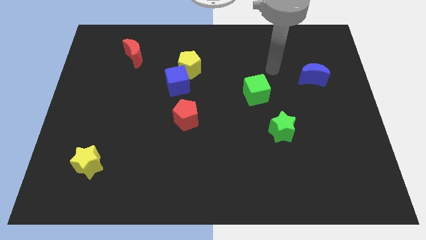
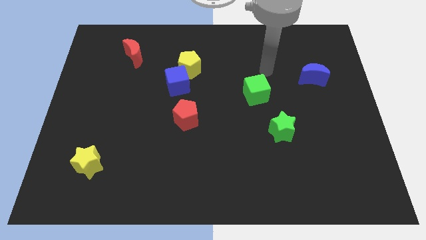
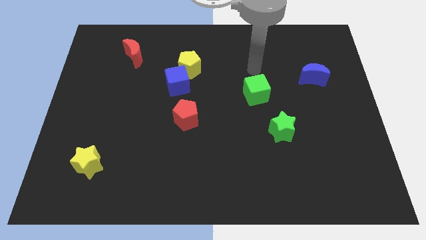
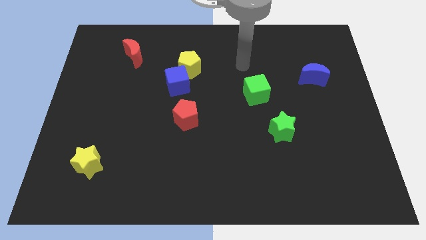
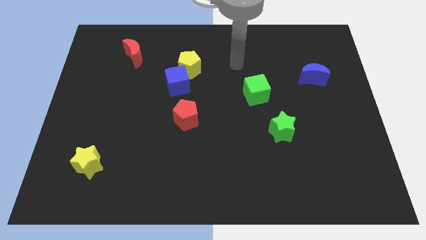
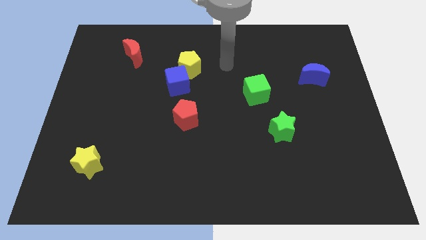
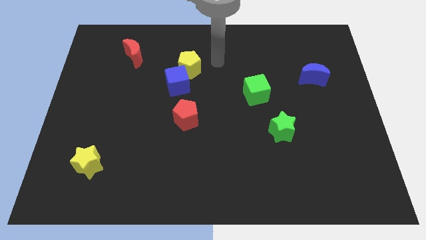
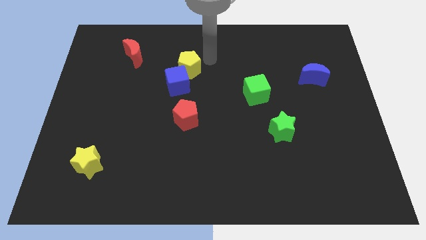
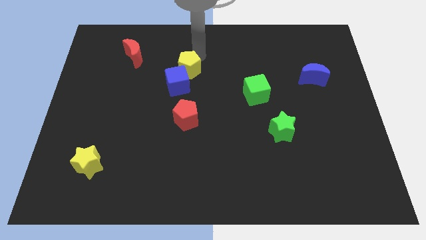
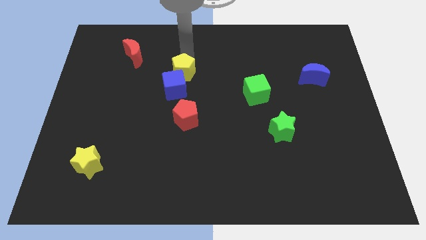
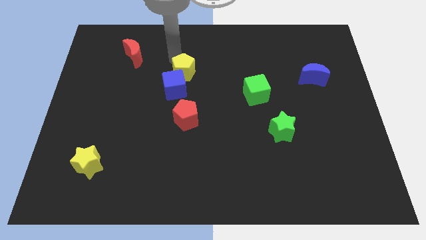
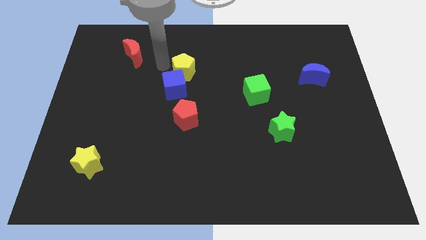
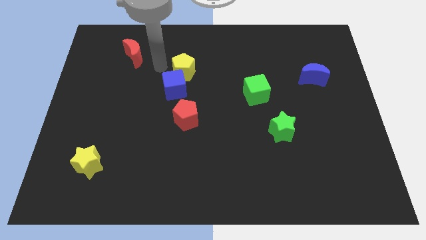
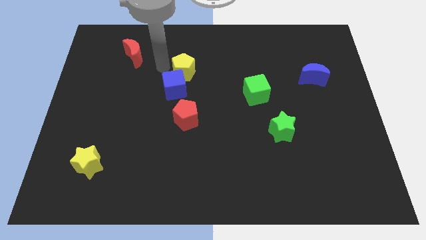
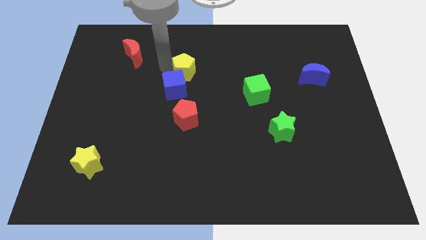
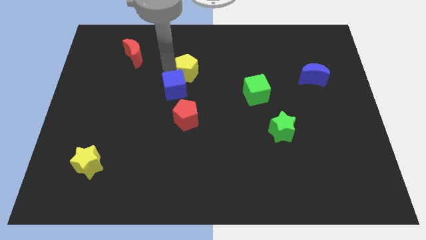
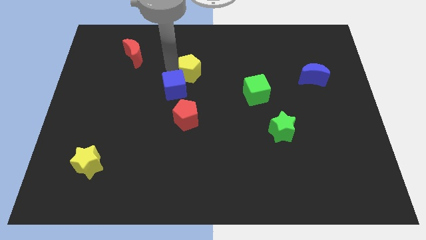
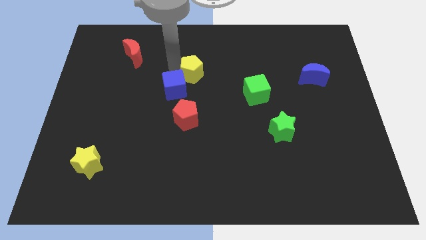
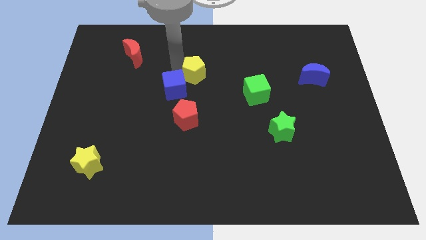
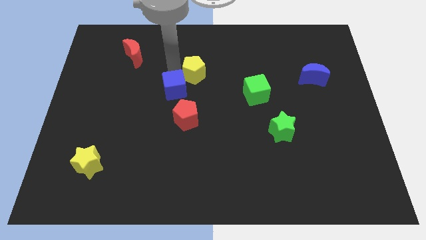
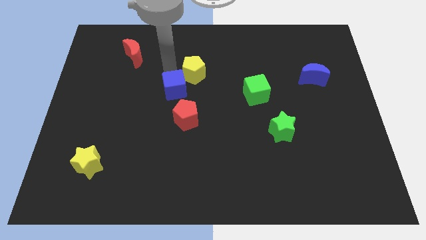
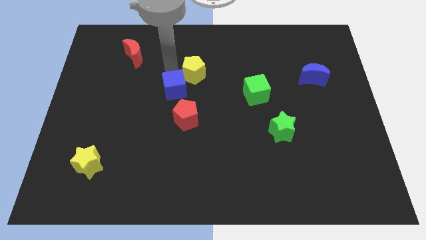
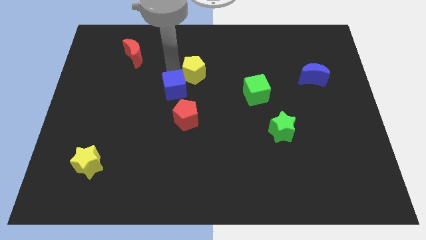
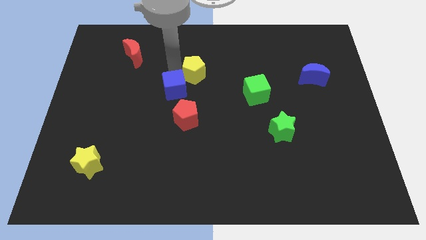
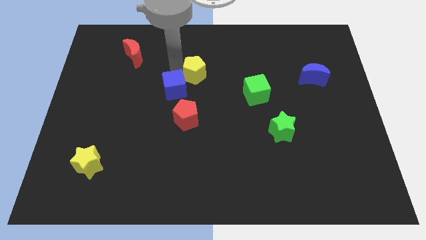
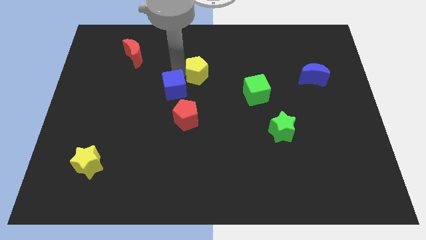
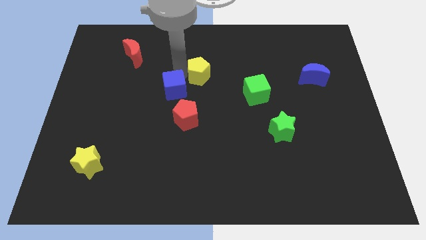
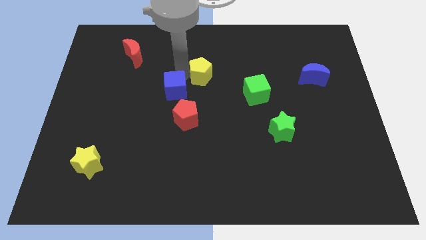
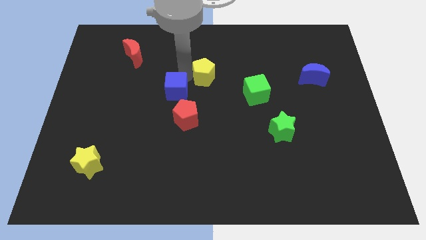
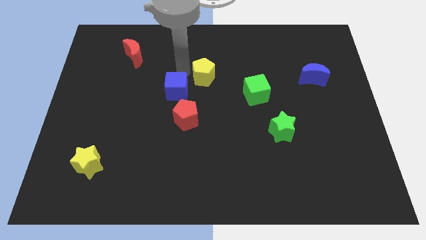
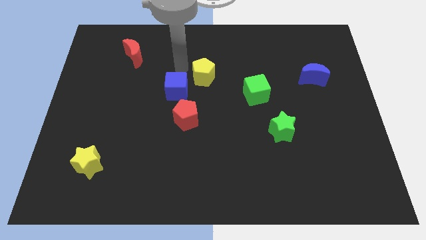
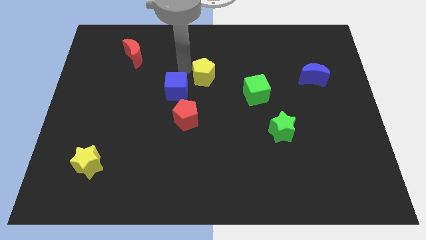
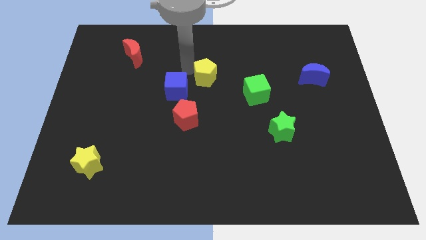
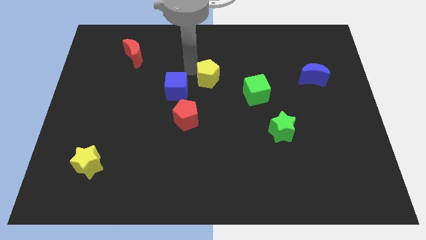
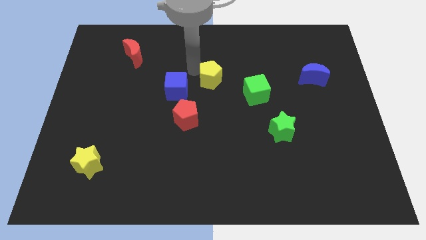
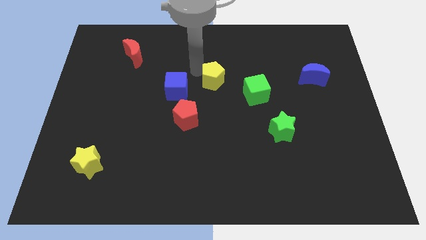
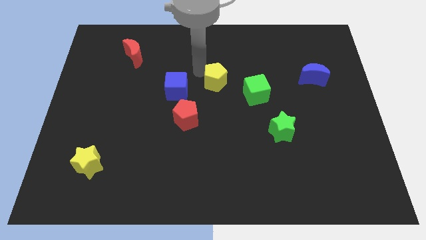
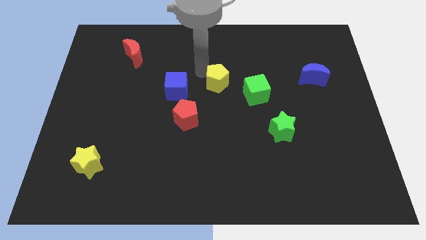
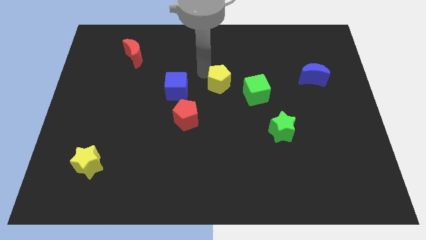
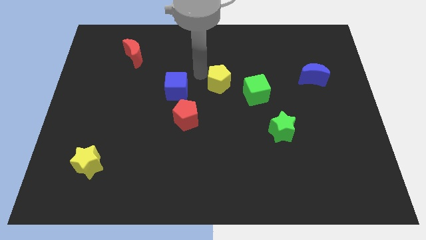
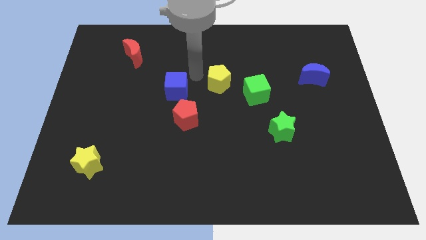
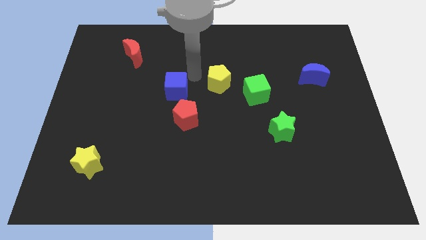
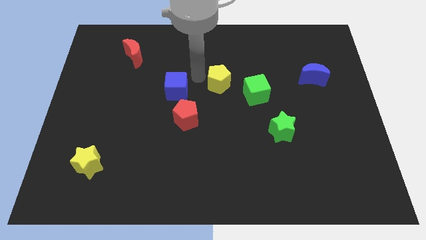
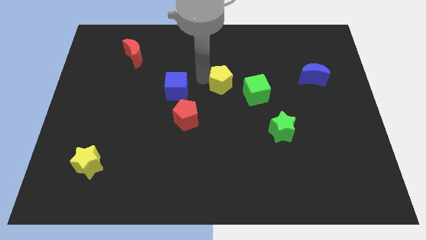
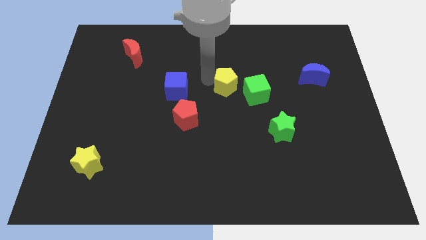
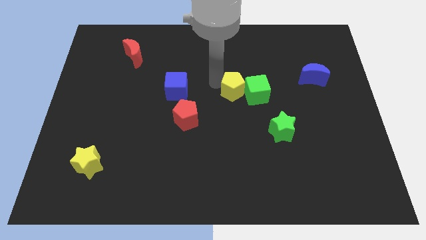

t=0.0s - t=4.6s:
slide the yellow pentagon close to the green cube

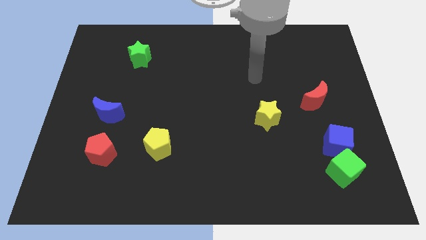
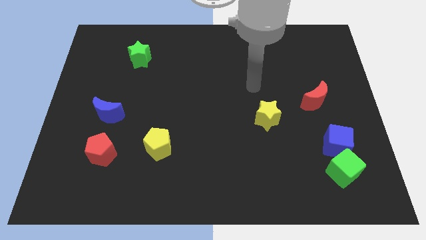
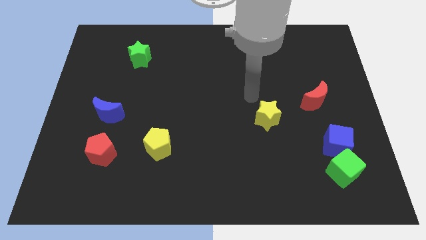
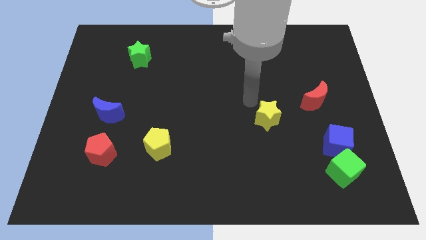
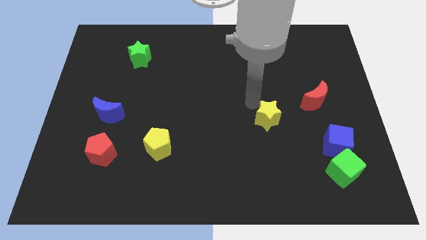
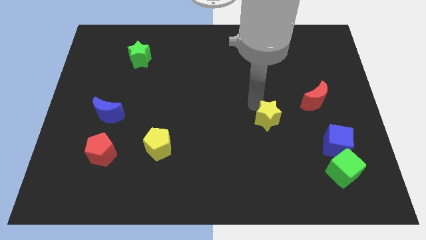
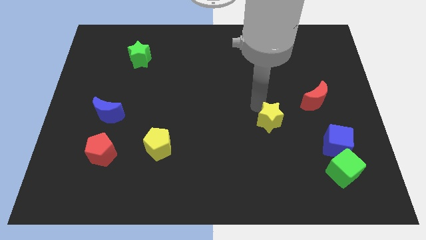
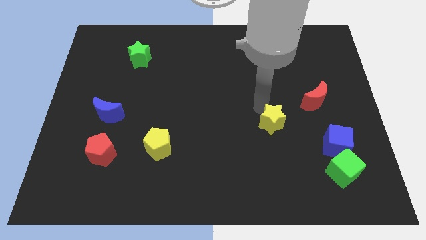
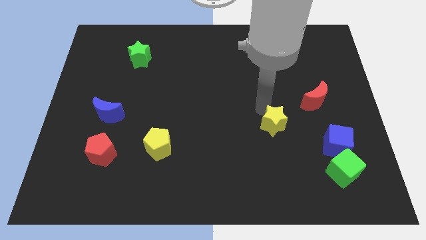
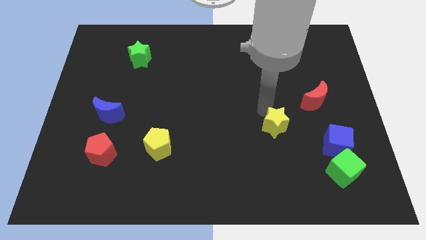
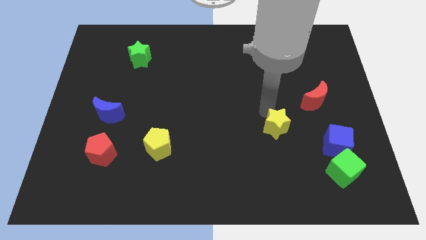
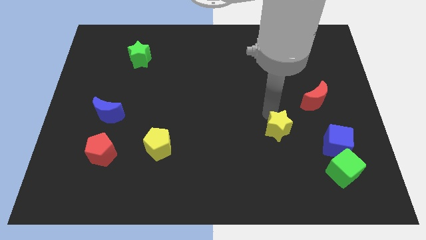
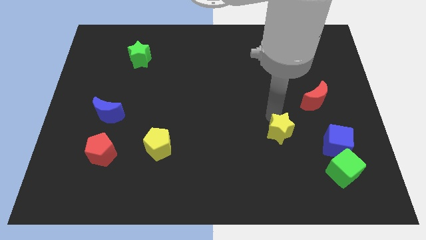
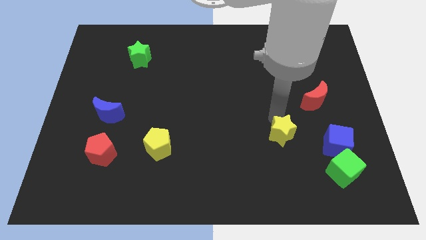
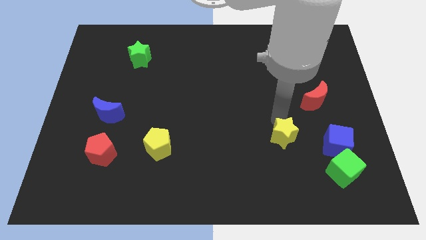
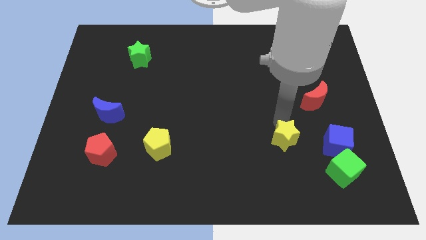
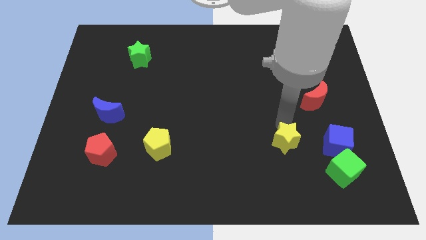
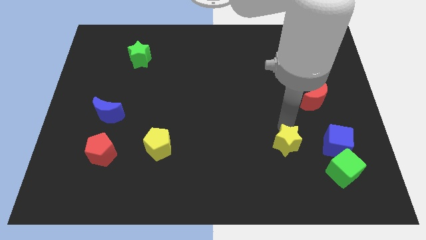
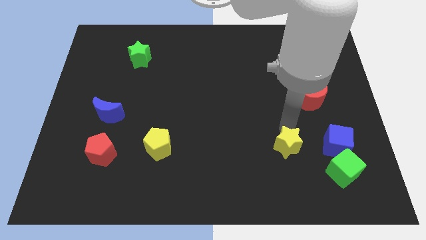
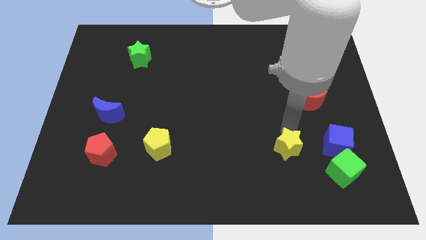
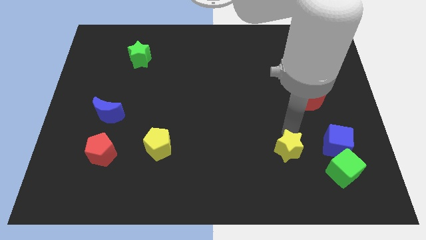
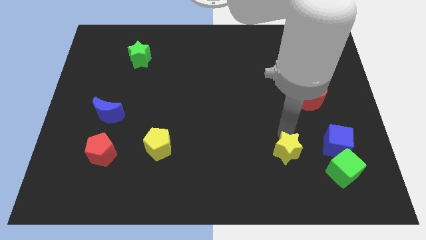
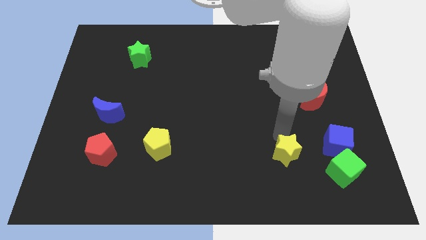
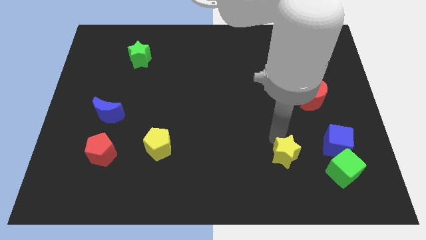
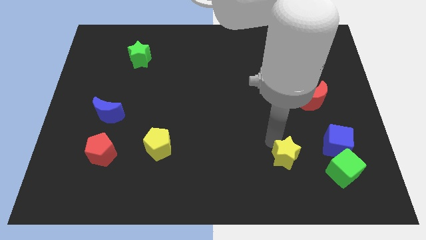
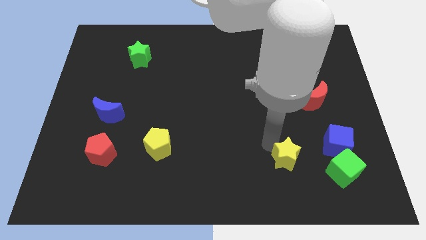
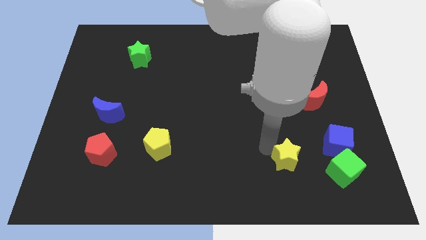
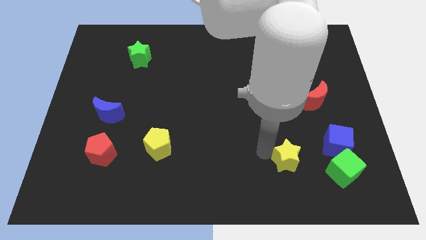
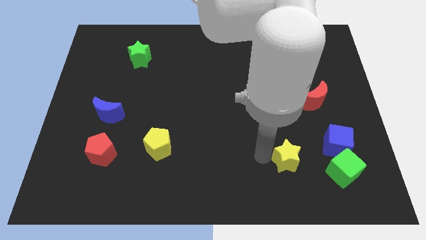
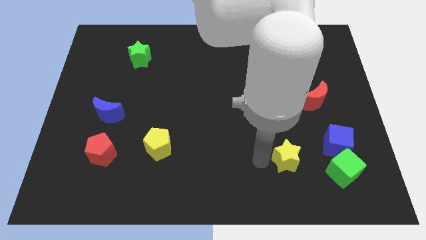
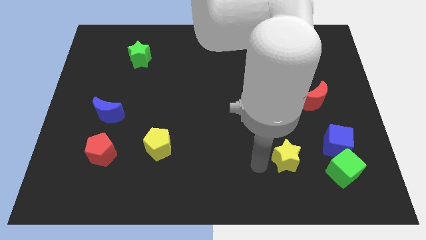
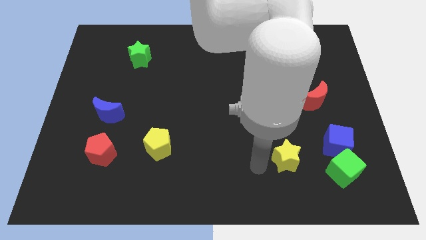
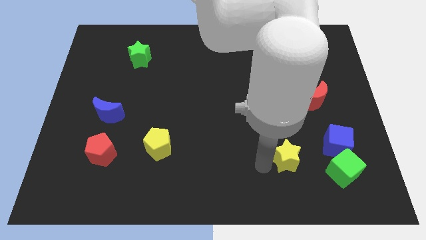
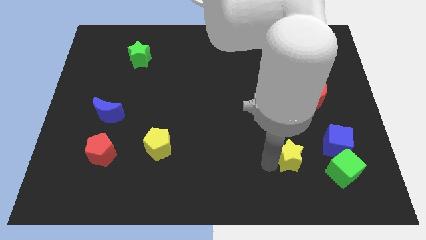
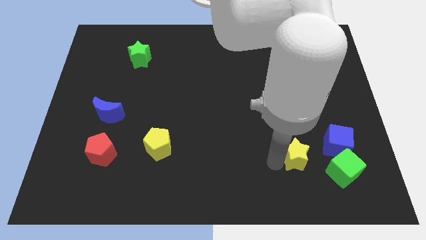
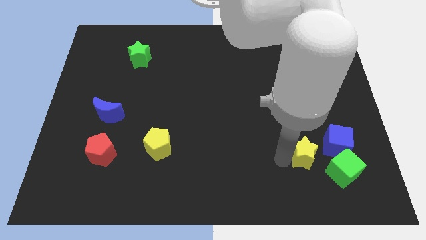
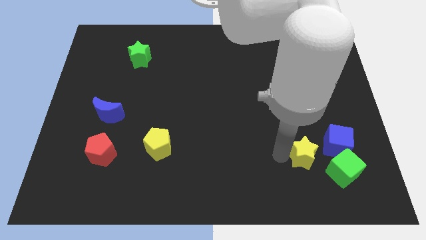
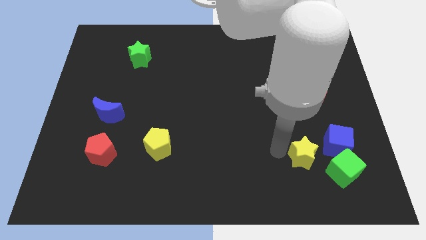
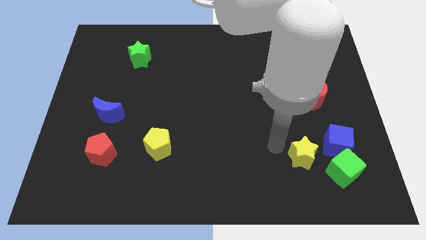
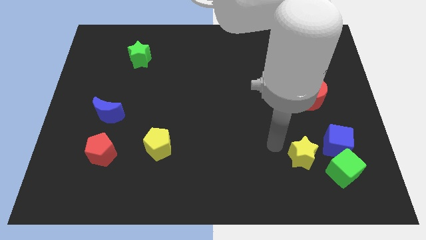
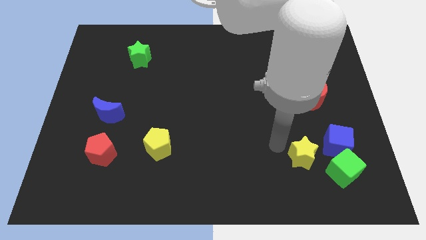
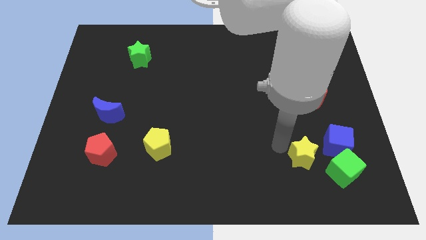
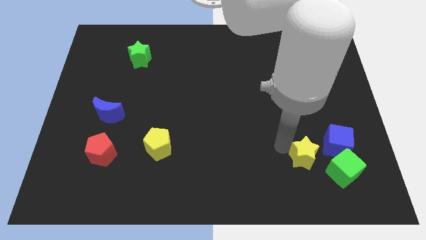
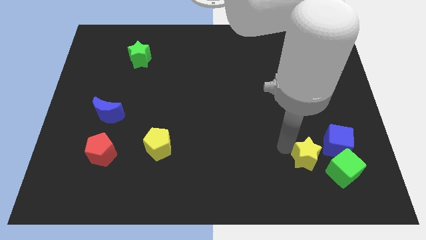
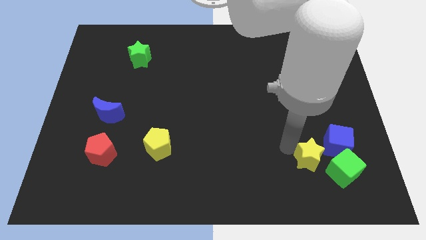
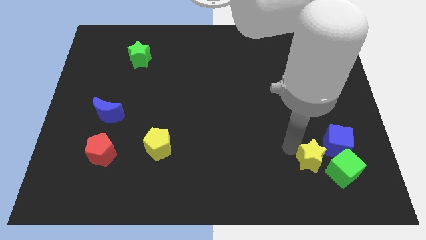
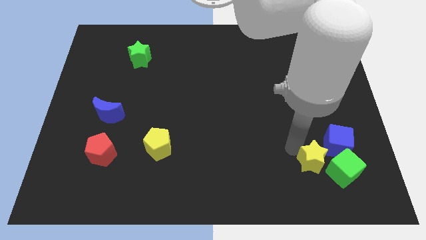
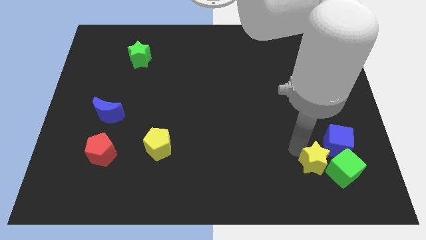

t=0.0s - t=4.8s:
put the yellow star towards the green cube
